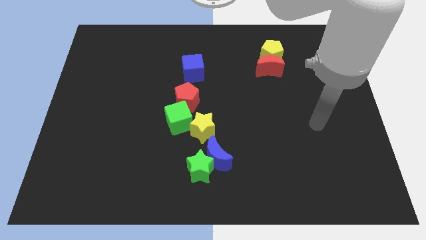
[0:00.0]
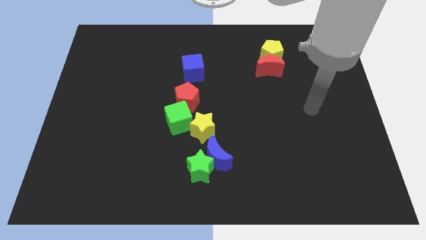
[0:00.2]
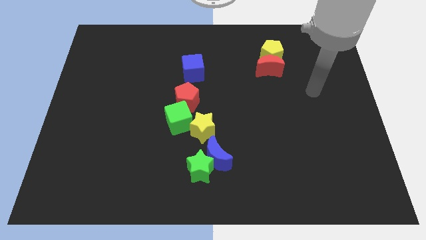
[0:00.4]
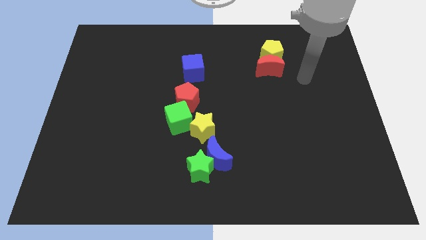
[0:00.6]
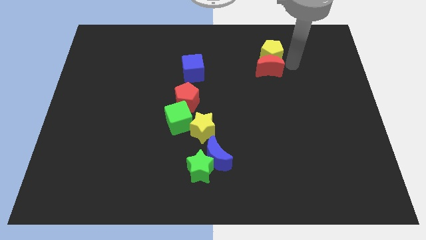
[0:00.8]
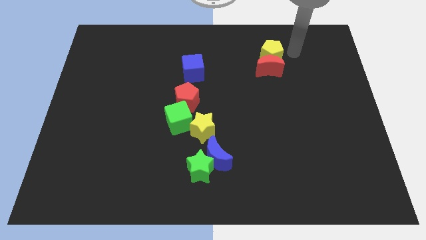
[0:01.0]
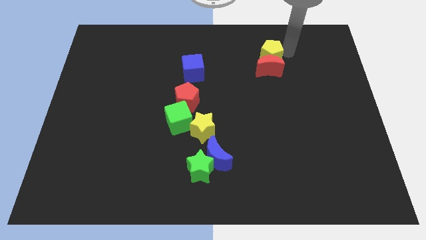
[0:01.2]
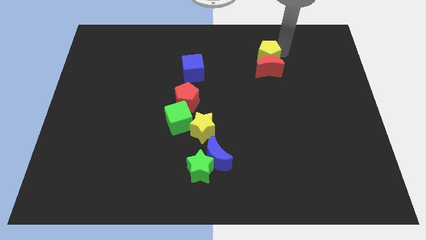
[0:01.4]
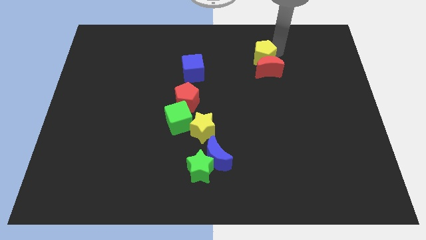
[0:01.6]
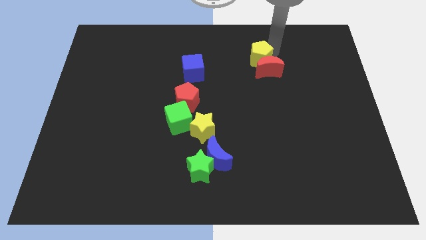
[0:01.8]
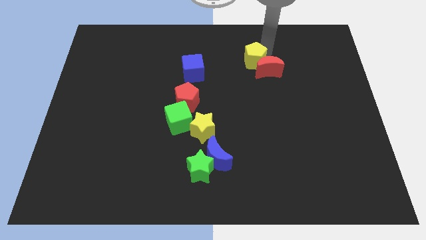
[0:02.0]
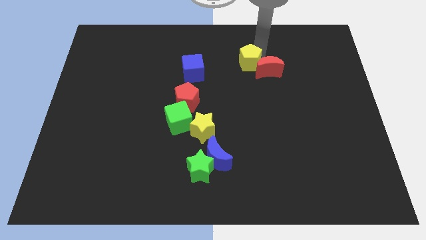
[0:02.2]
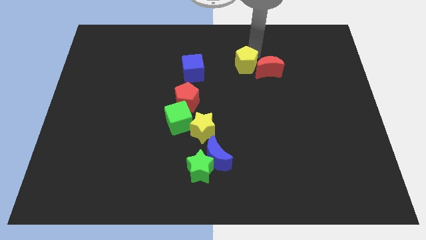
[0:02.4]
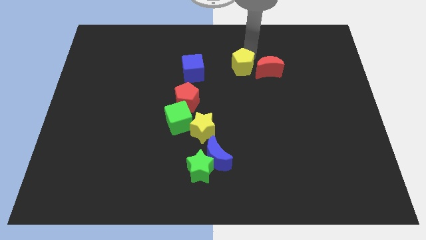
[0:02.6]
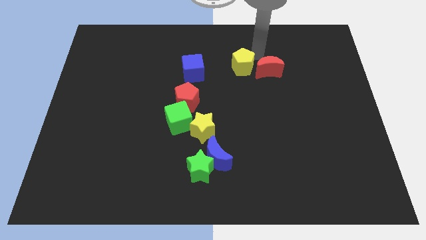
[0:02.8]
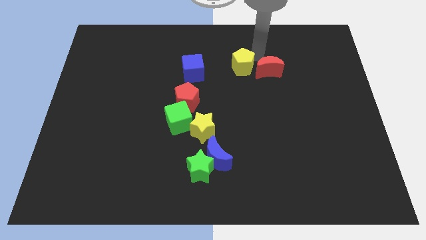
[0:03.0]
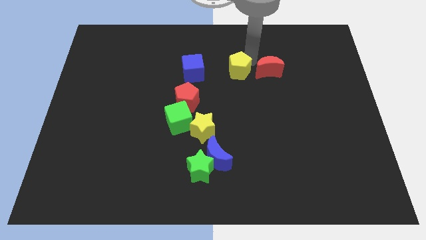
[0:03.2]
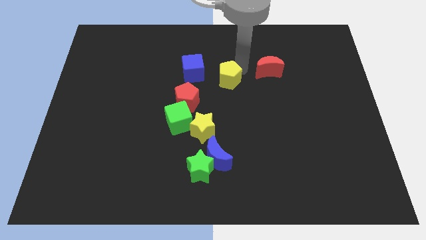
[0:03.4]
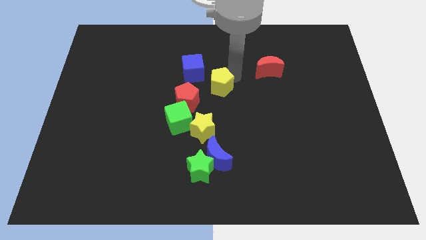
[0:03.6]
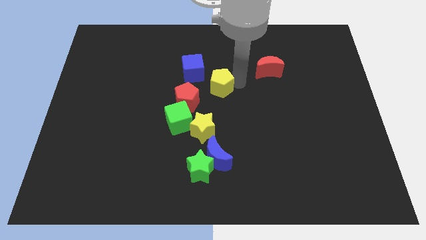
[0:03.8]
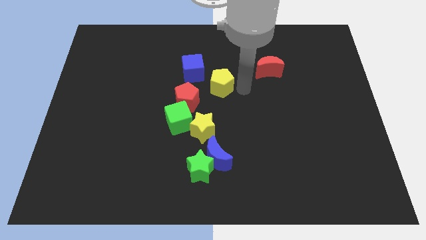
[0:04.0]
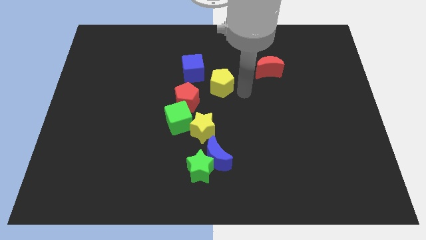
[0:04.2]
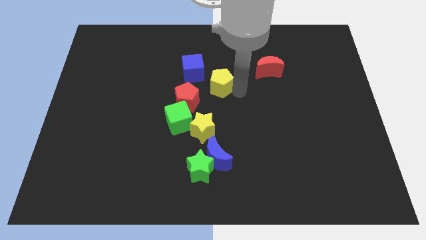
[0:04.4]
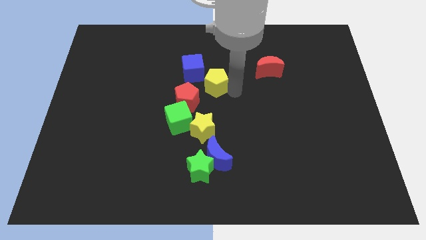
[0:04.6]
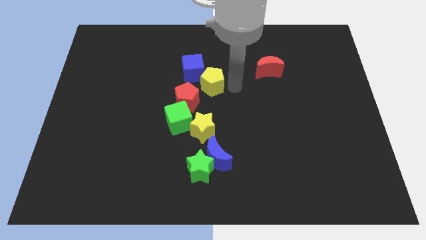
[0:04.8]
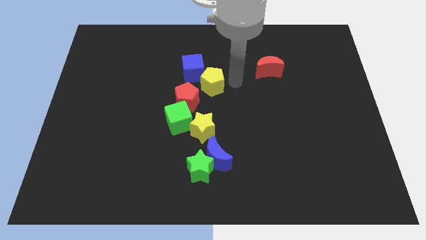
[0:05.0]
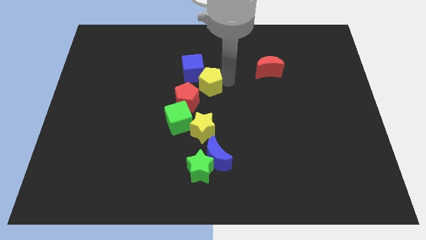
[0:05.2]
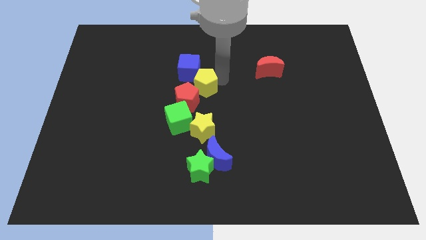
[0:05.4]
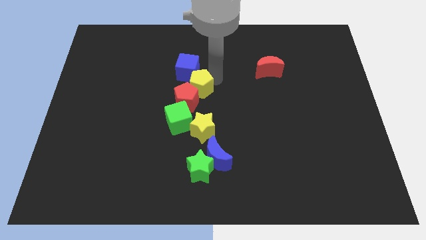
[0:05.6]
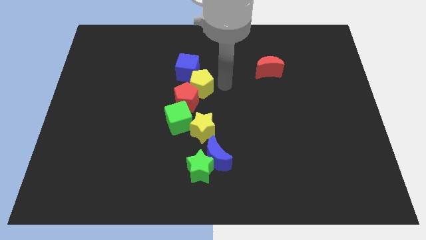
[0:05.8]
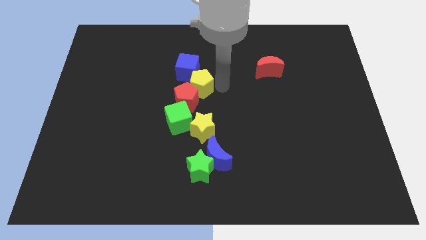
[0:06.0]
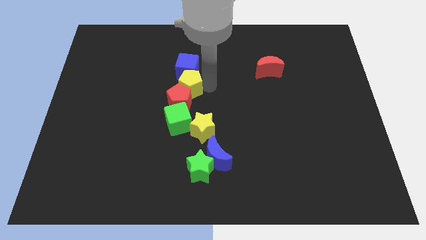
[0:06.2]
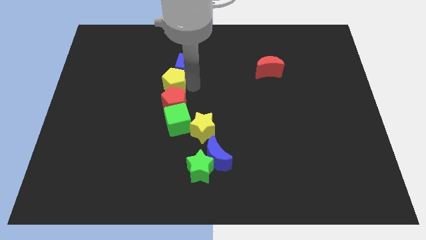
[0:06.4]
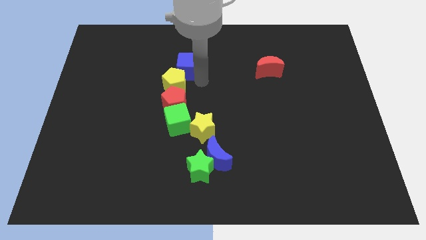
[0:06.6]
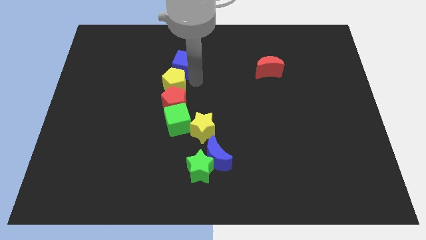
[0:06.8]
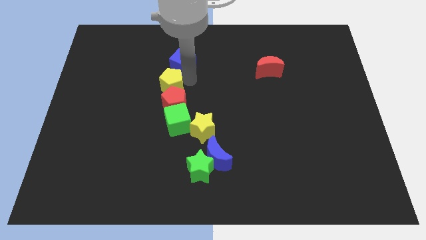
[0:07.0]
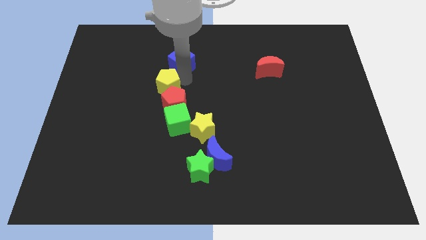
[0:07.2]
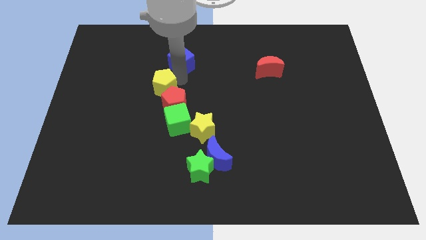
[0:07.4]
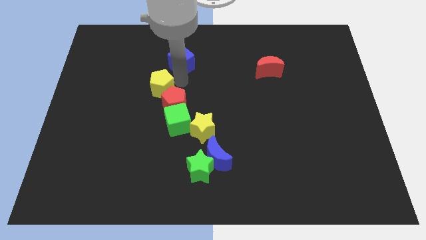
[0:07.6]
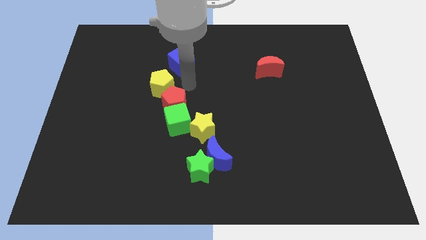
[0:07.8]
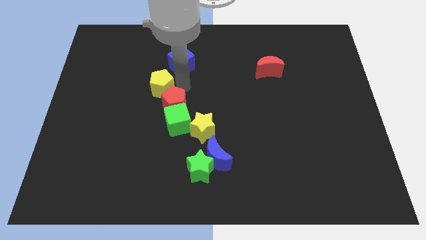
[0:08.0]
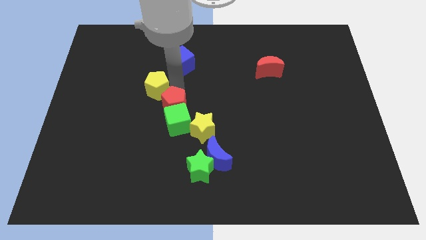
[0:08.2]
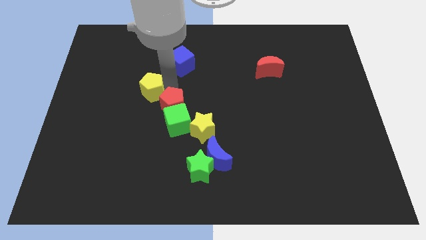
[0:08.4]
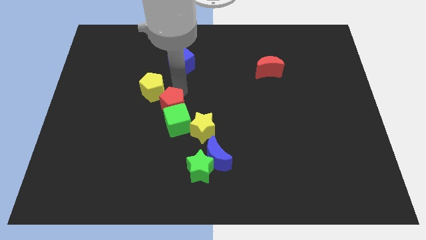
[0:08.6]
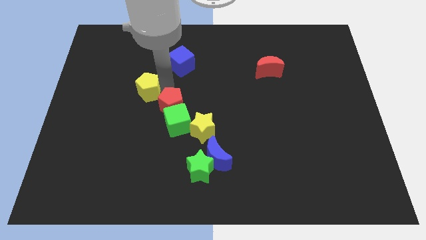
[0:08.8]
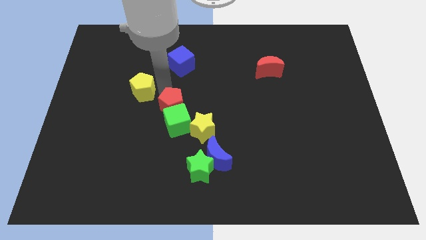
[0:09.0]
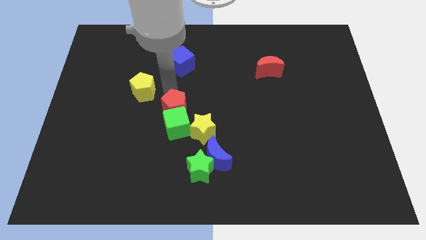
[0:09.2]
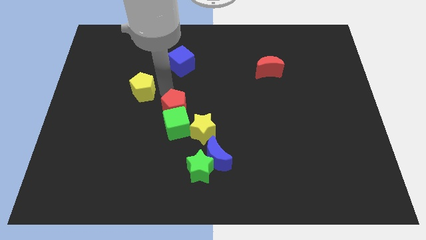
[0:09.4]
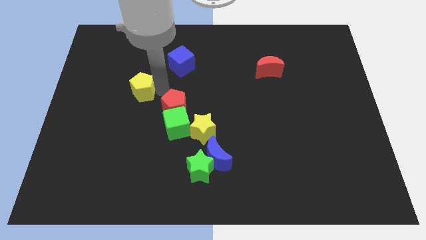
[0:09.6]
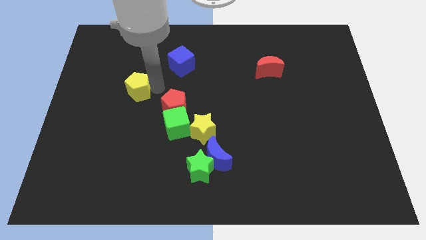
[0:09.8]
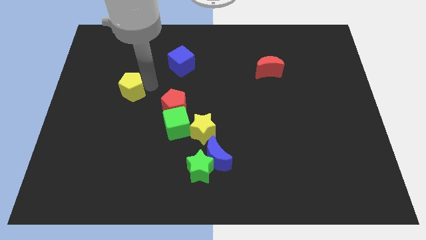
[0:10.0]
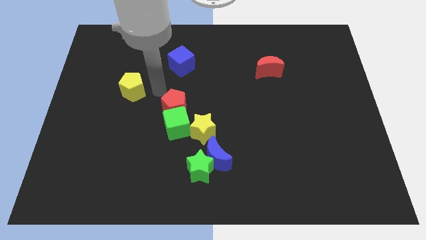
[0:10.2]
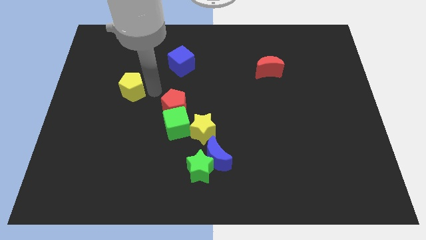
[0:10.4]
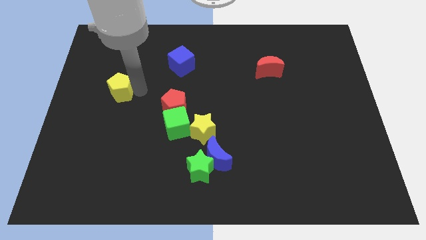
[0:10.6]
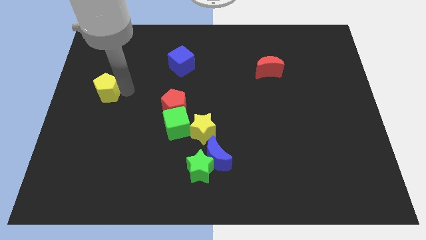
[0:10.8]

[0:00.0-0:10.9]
push the yellow pentagon to the left side of the board

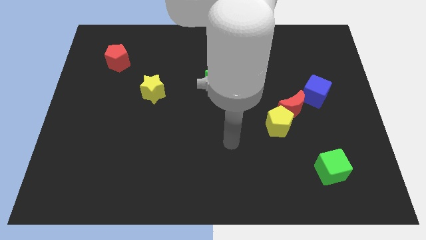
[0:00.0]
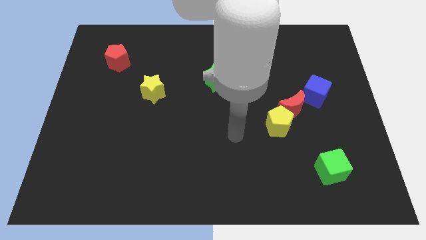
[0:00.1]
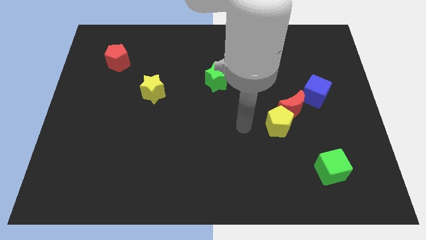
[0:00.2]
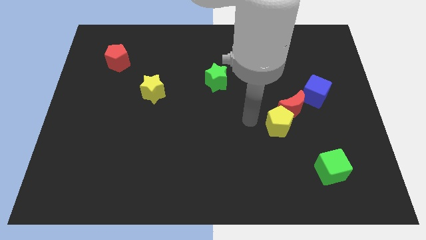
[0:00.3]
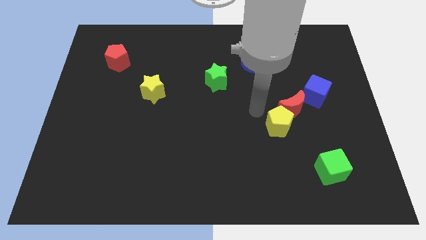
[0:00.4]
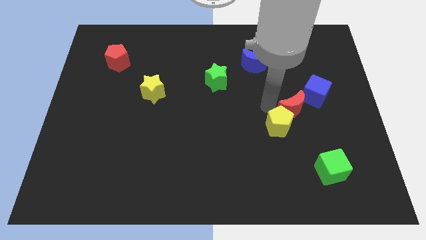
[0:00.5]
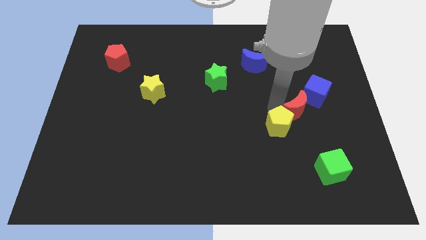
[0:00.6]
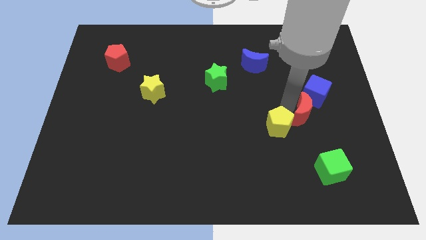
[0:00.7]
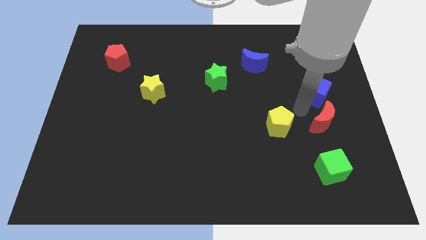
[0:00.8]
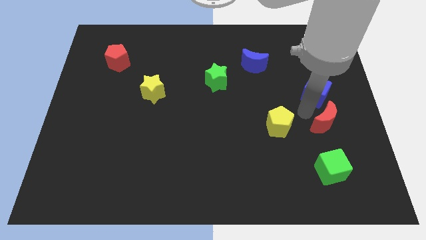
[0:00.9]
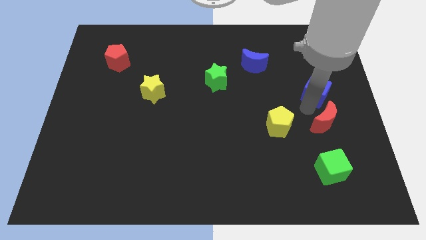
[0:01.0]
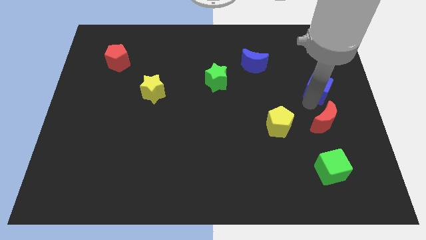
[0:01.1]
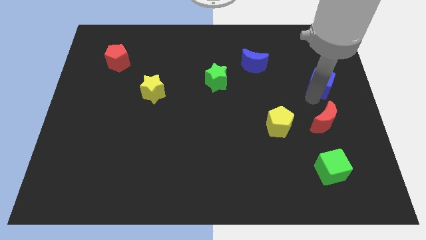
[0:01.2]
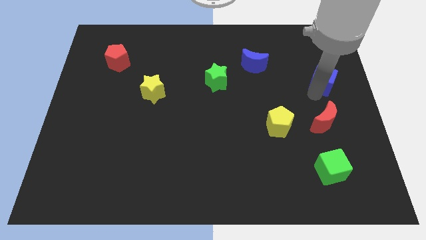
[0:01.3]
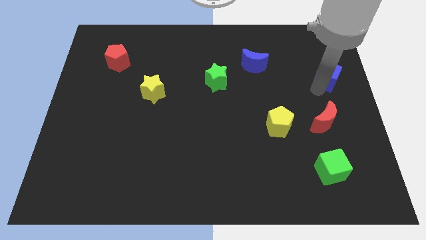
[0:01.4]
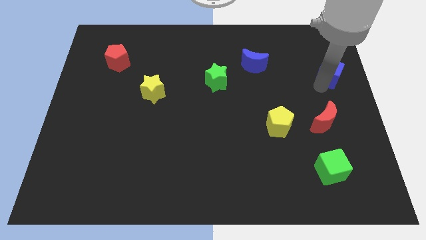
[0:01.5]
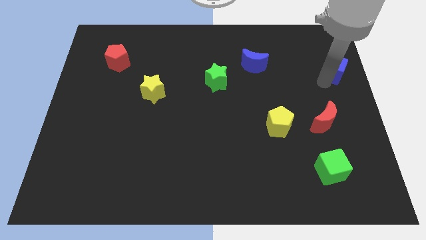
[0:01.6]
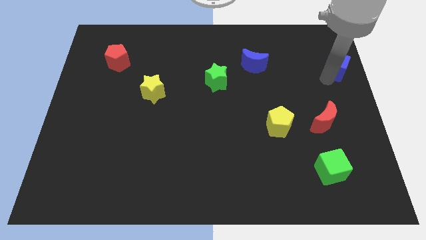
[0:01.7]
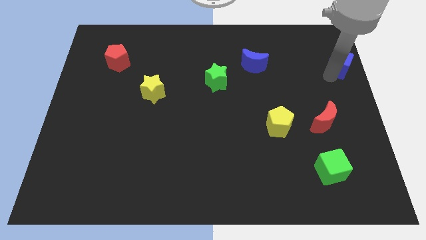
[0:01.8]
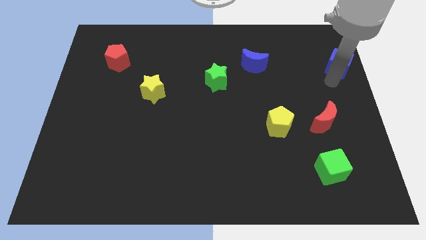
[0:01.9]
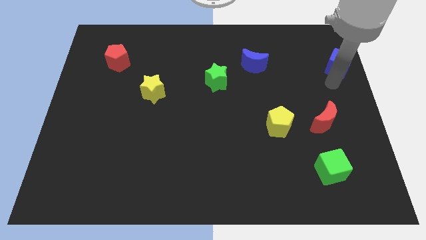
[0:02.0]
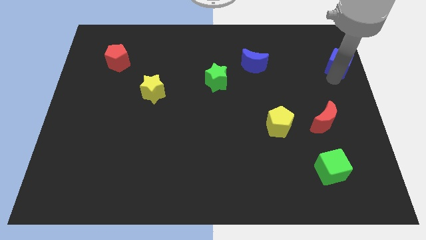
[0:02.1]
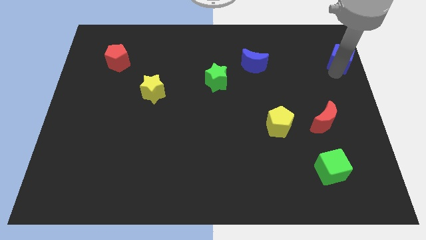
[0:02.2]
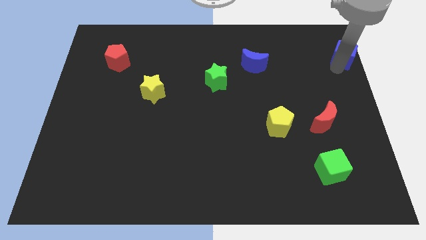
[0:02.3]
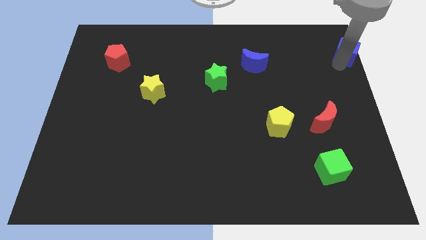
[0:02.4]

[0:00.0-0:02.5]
slide the blue cube to the top right corner
